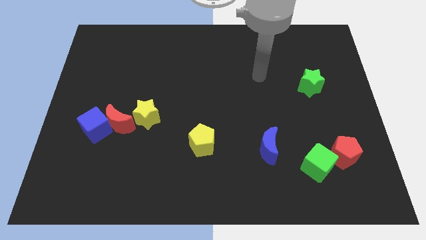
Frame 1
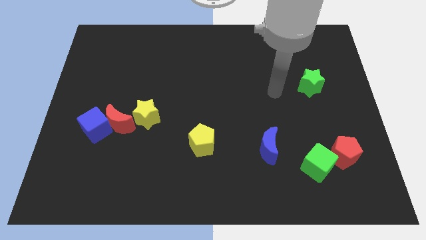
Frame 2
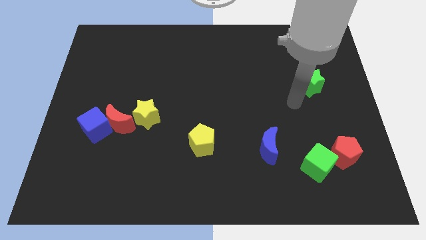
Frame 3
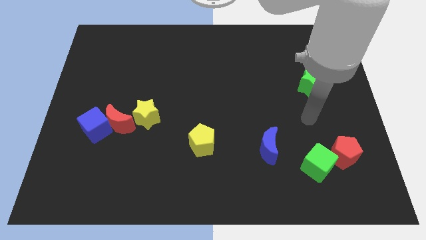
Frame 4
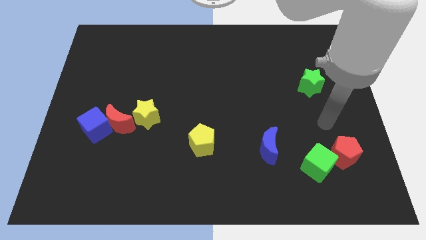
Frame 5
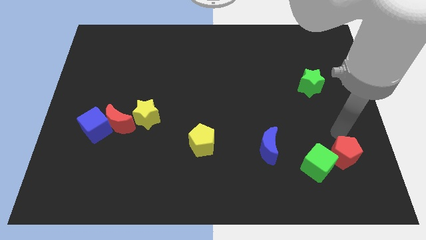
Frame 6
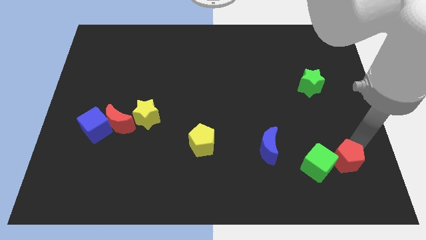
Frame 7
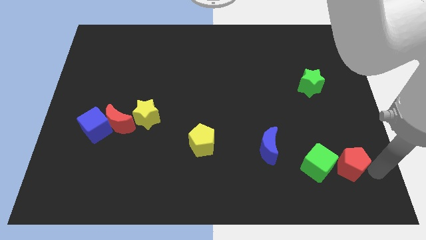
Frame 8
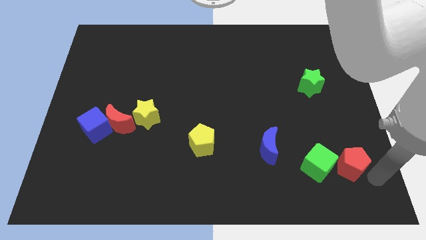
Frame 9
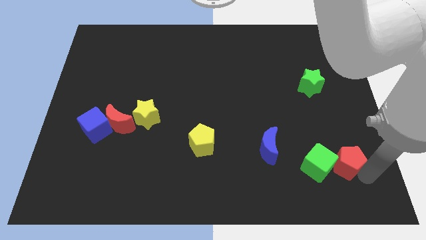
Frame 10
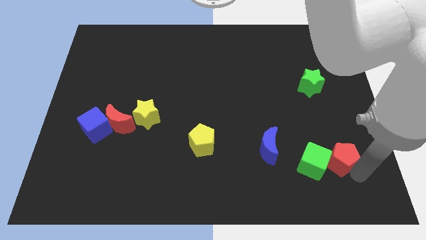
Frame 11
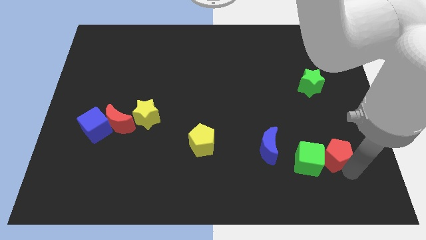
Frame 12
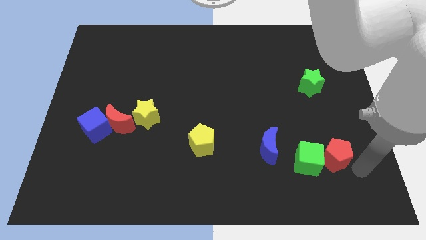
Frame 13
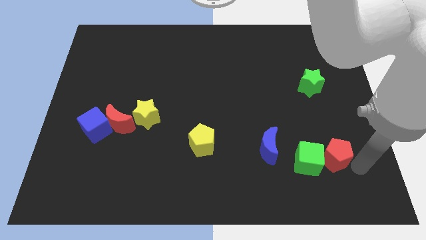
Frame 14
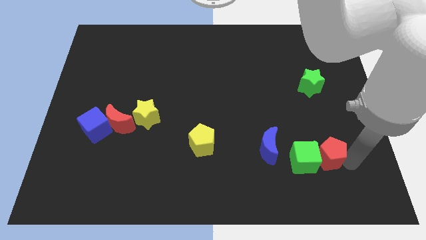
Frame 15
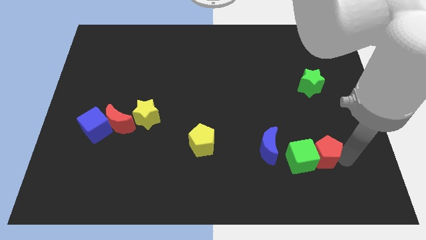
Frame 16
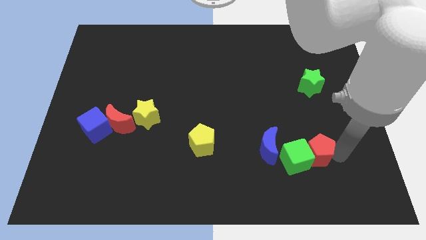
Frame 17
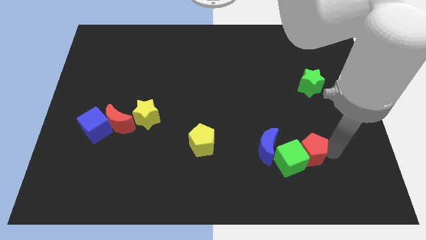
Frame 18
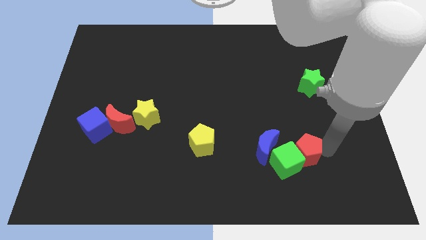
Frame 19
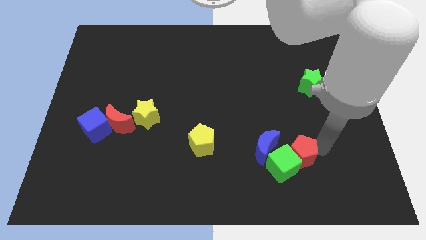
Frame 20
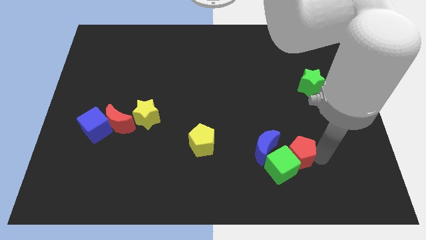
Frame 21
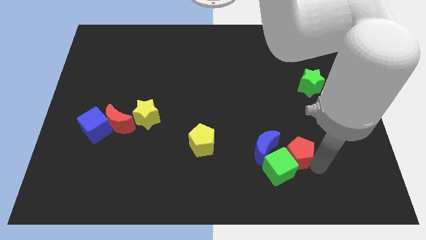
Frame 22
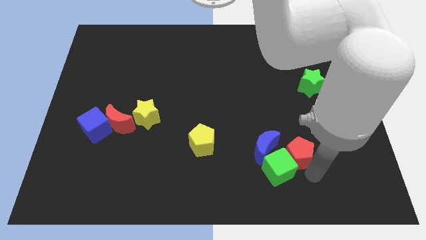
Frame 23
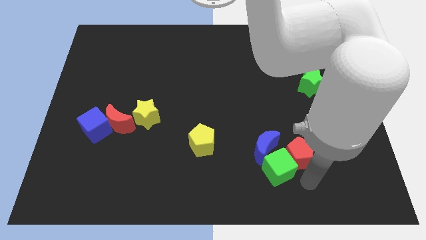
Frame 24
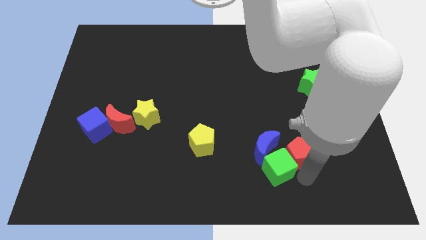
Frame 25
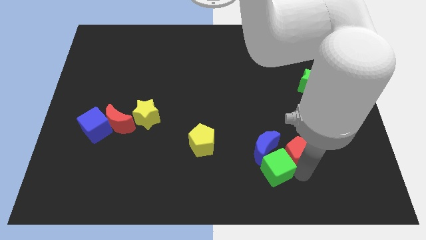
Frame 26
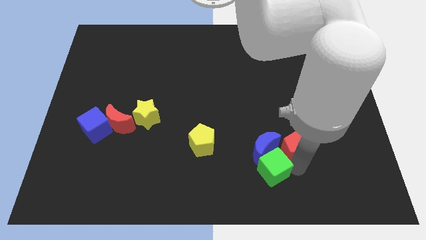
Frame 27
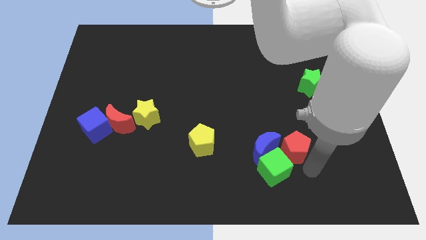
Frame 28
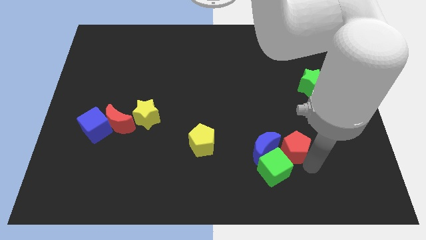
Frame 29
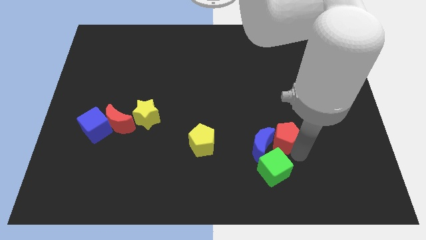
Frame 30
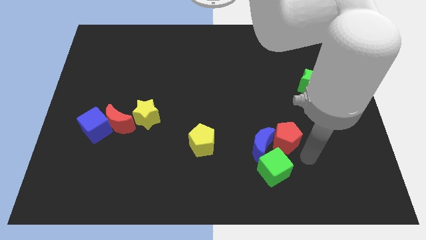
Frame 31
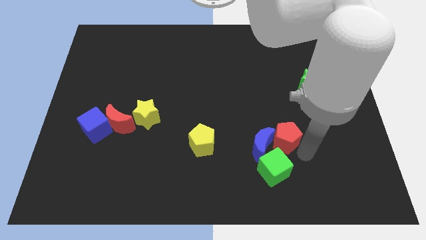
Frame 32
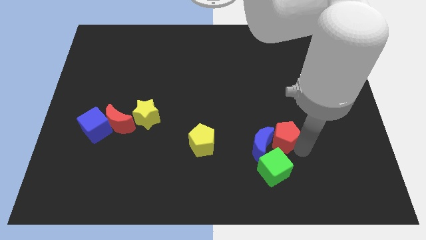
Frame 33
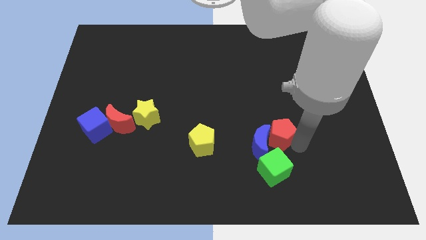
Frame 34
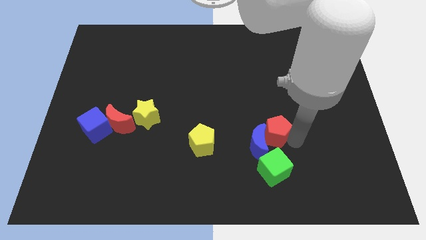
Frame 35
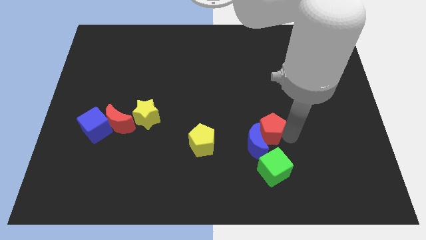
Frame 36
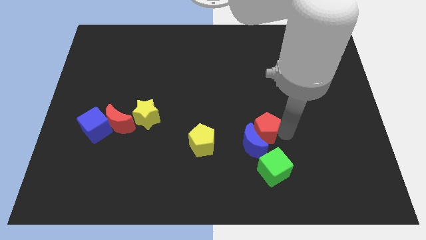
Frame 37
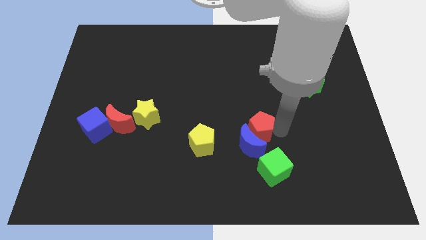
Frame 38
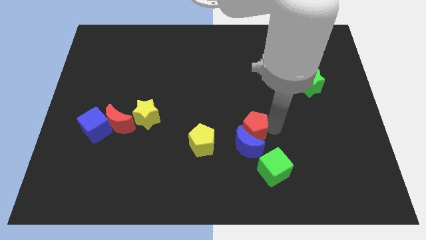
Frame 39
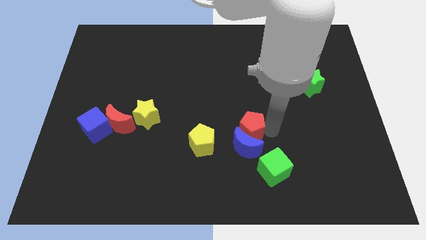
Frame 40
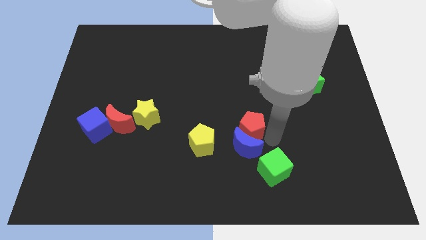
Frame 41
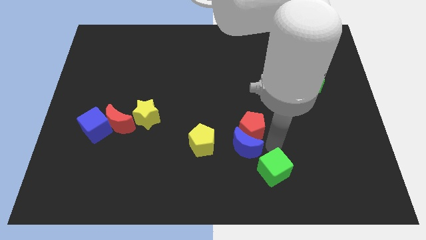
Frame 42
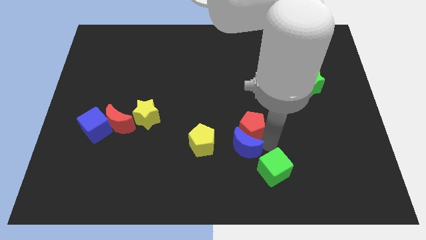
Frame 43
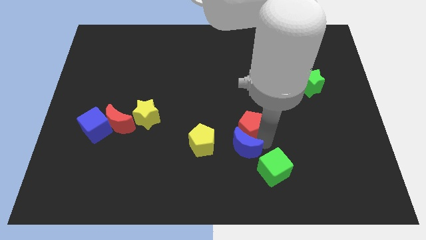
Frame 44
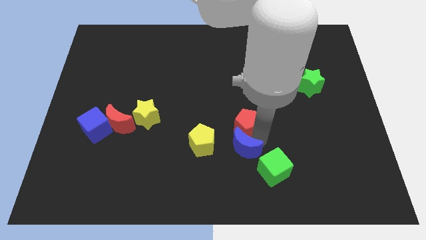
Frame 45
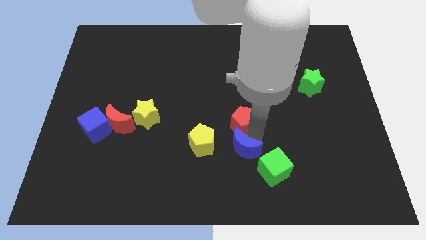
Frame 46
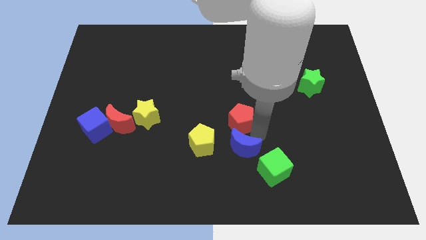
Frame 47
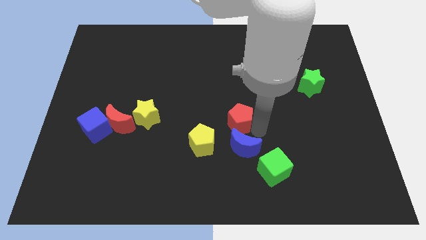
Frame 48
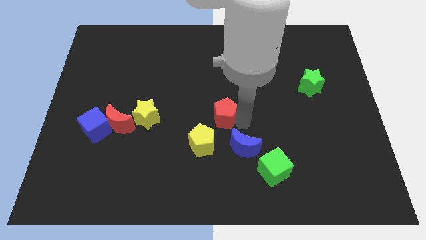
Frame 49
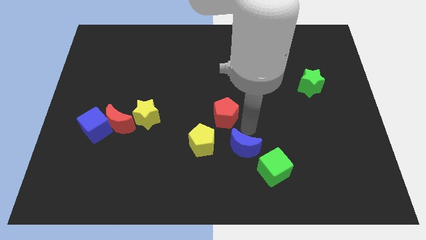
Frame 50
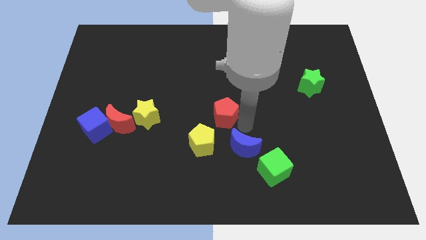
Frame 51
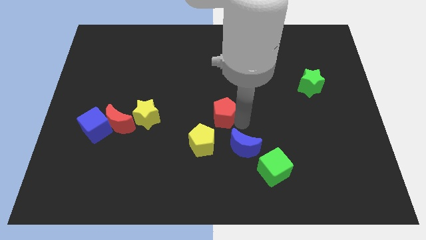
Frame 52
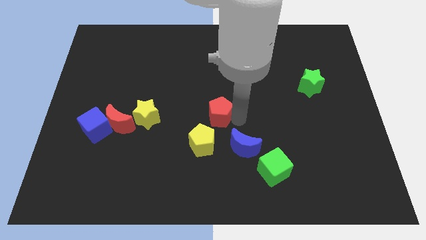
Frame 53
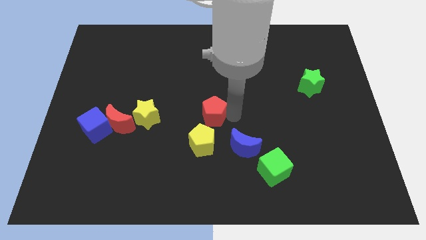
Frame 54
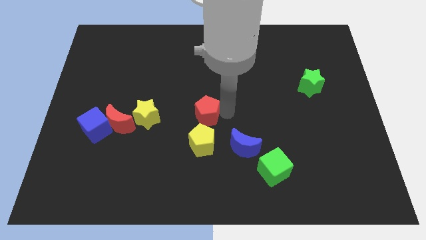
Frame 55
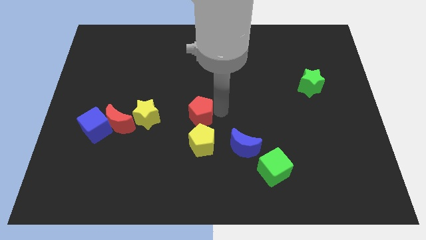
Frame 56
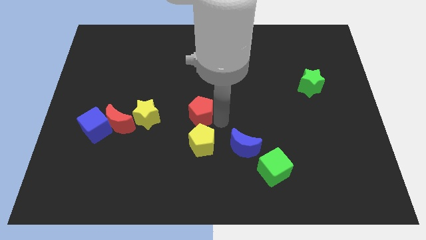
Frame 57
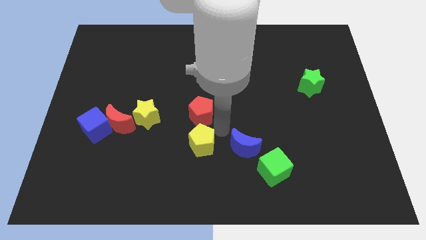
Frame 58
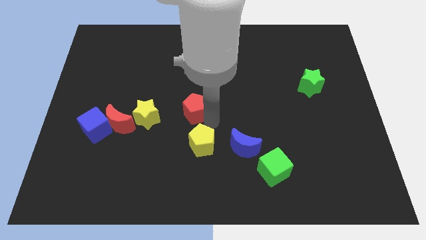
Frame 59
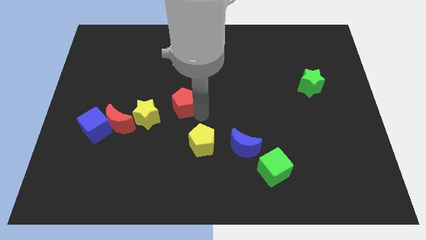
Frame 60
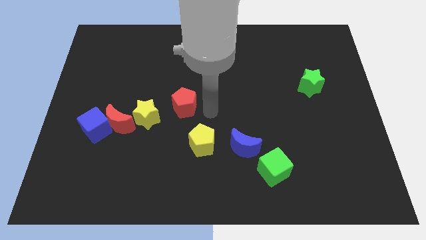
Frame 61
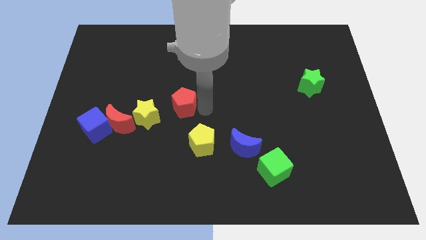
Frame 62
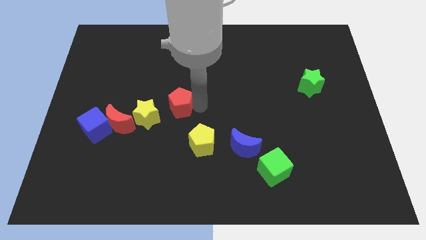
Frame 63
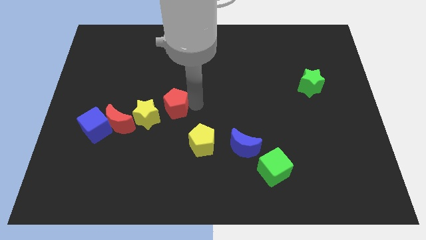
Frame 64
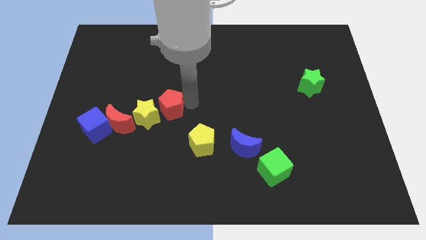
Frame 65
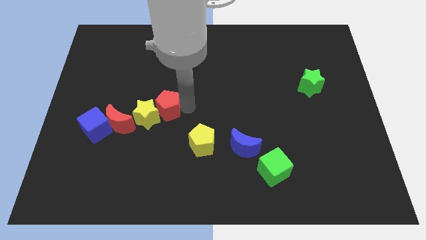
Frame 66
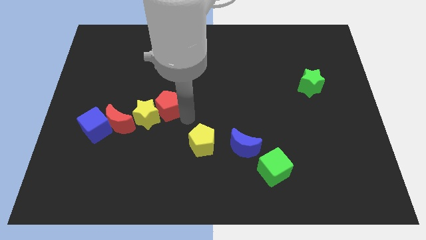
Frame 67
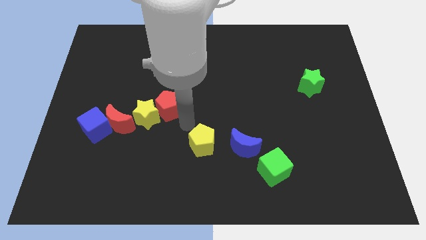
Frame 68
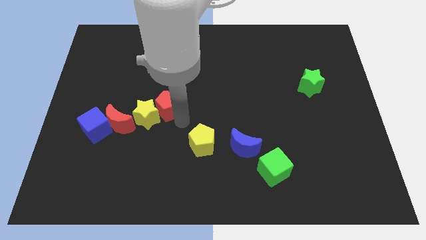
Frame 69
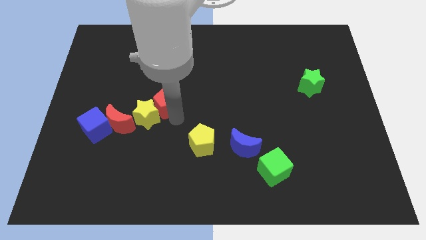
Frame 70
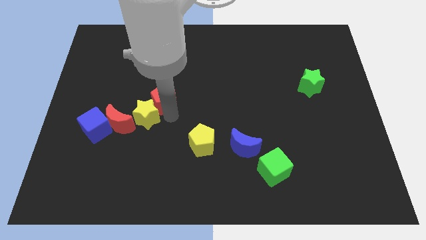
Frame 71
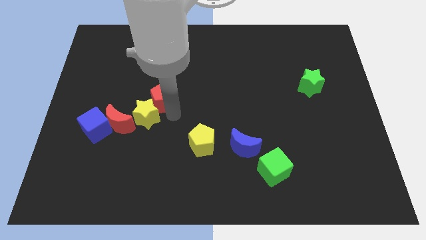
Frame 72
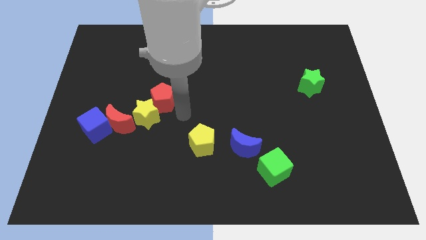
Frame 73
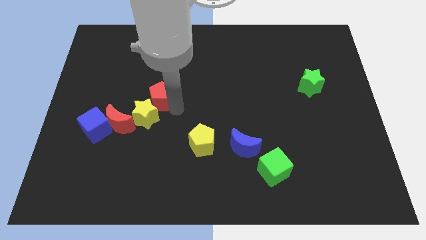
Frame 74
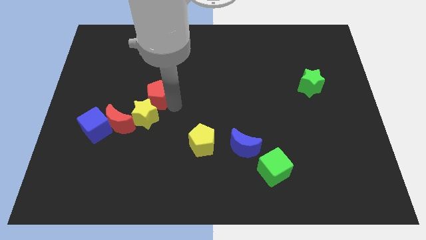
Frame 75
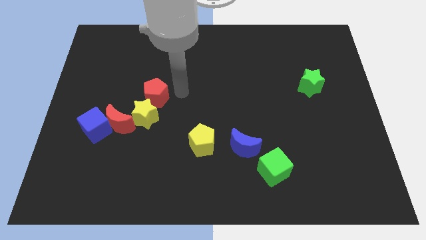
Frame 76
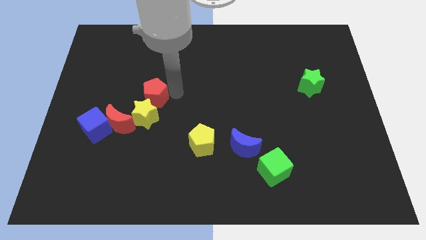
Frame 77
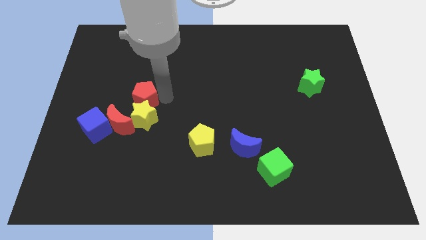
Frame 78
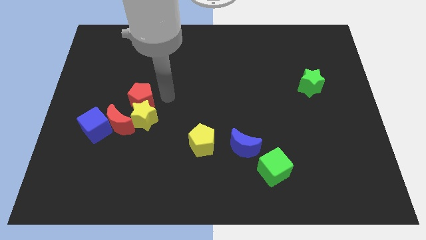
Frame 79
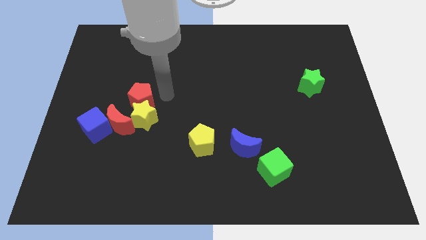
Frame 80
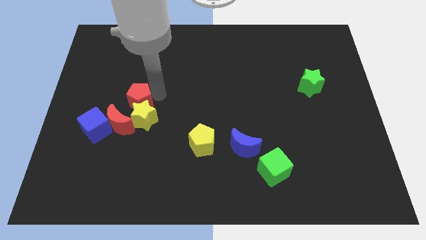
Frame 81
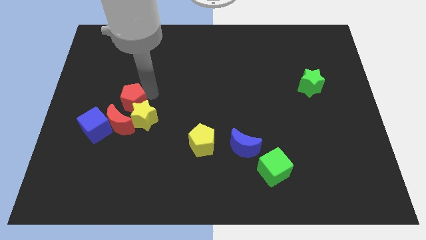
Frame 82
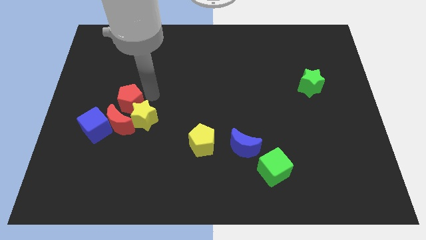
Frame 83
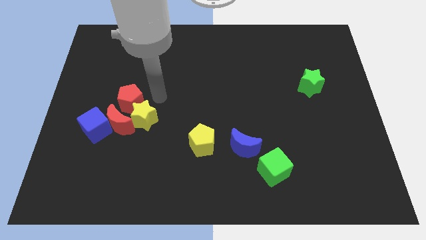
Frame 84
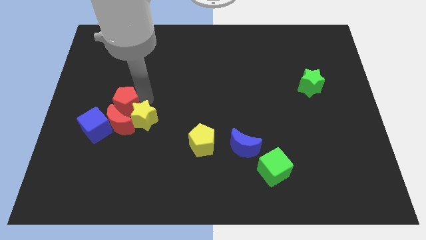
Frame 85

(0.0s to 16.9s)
slide the red pentagon to the top left side of the red moon
